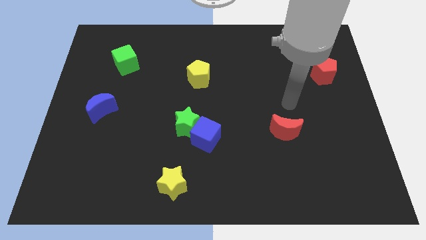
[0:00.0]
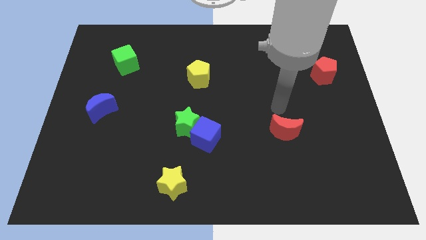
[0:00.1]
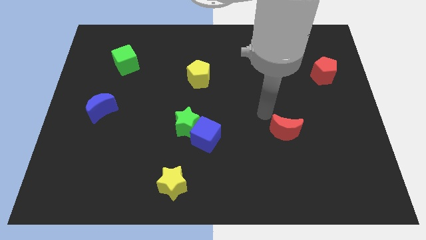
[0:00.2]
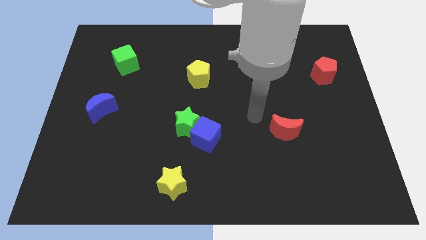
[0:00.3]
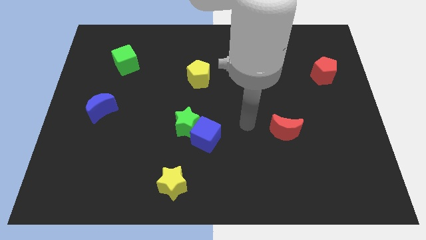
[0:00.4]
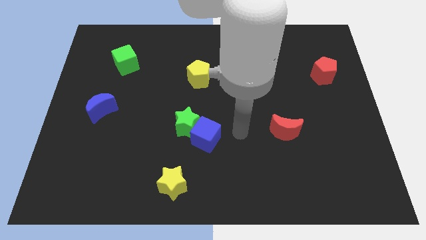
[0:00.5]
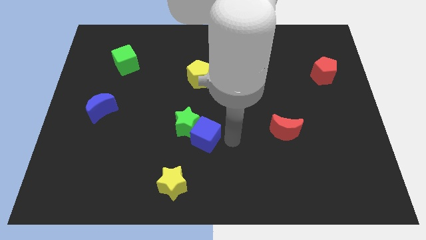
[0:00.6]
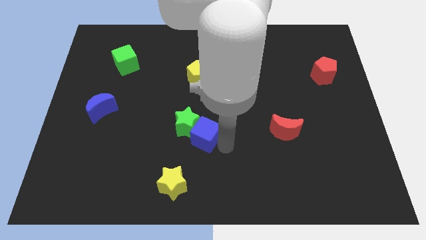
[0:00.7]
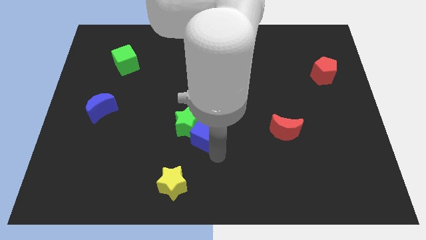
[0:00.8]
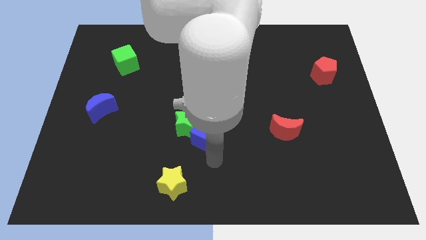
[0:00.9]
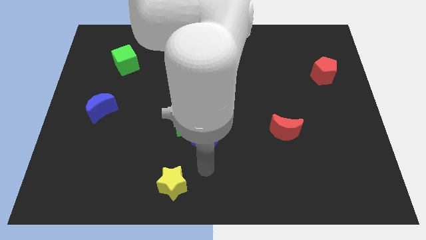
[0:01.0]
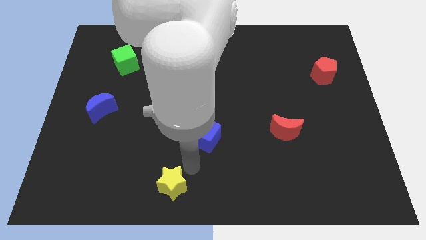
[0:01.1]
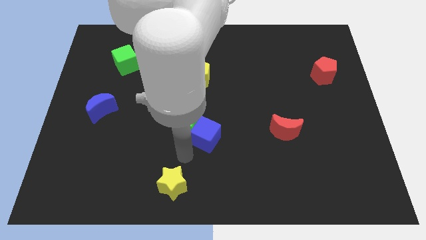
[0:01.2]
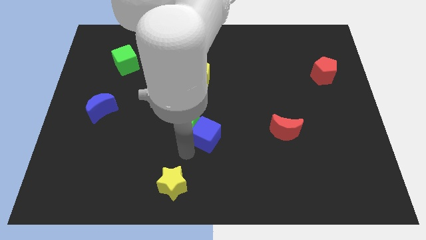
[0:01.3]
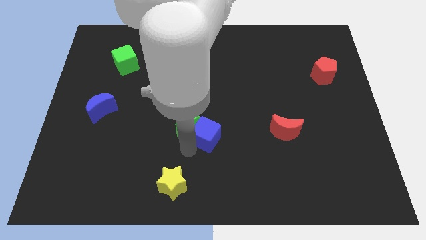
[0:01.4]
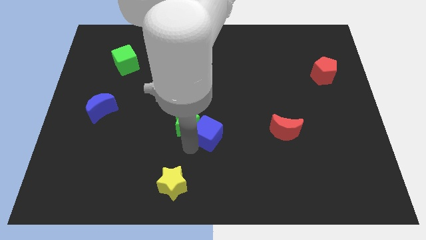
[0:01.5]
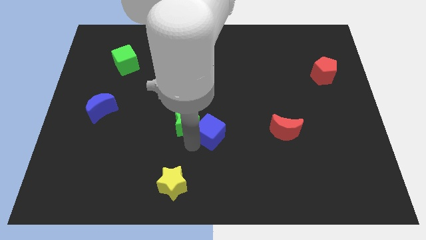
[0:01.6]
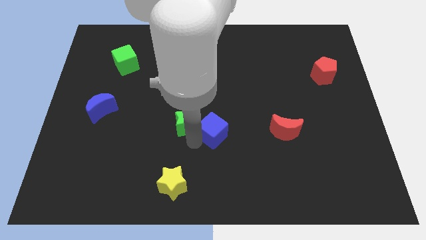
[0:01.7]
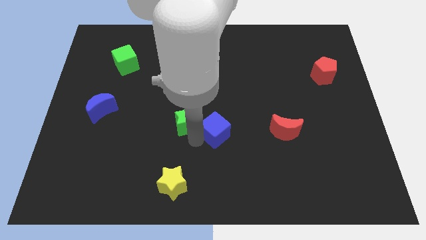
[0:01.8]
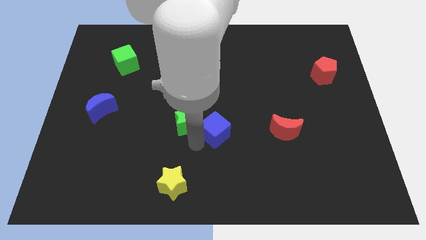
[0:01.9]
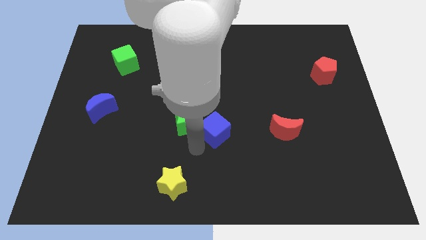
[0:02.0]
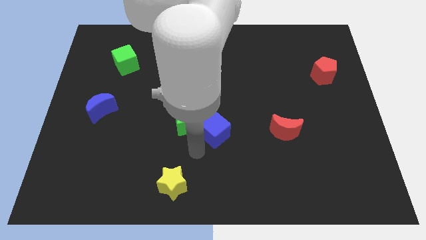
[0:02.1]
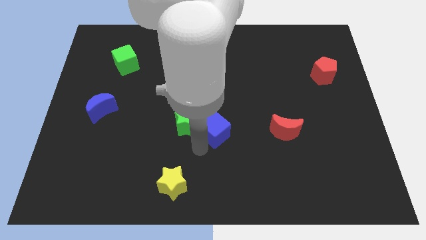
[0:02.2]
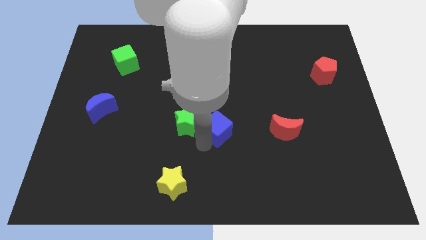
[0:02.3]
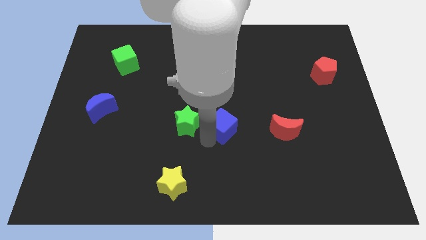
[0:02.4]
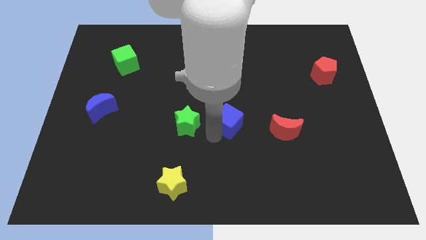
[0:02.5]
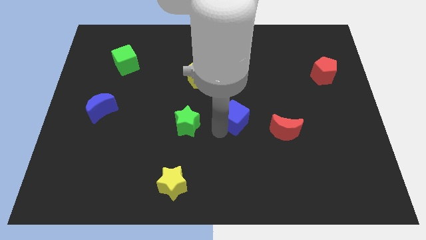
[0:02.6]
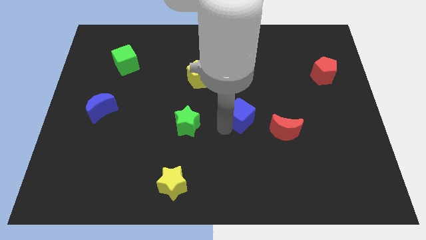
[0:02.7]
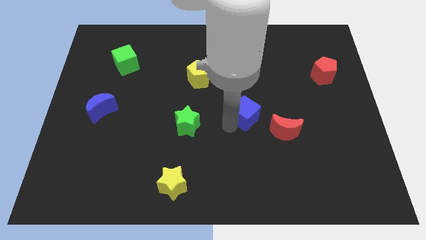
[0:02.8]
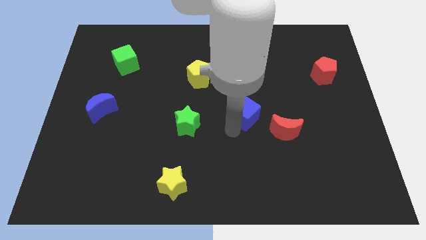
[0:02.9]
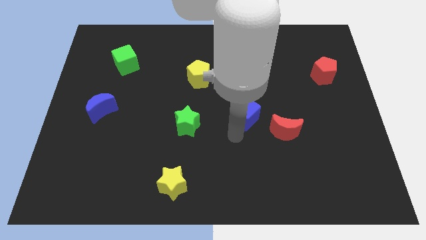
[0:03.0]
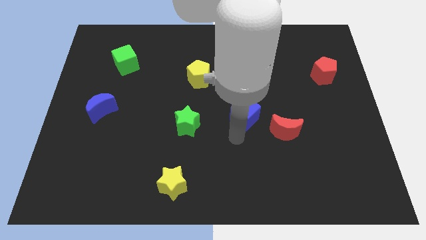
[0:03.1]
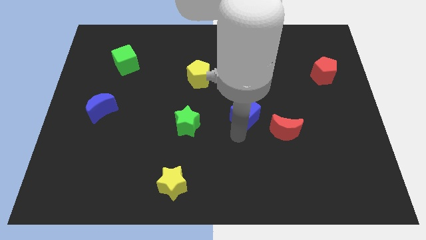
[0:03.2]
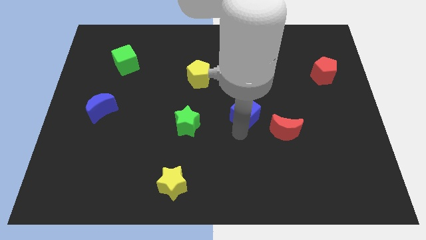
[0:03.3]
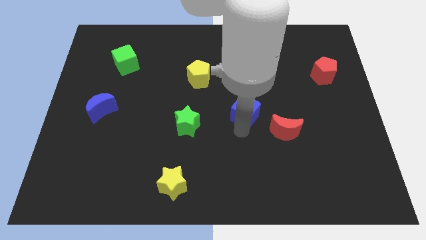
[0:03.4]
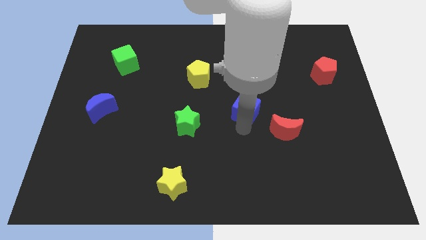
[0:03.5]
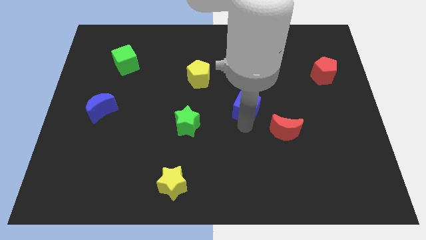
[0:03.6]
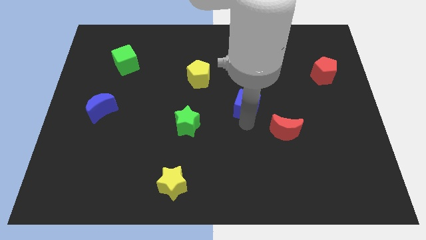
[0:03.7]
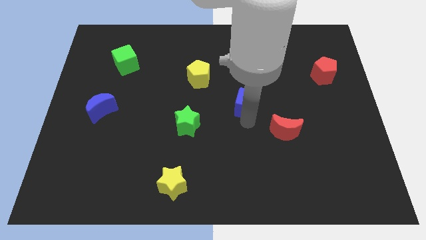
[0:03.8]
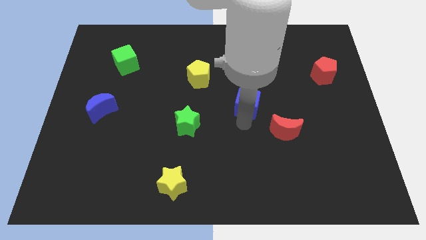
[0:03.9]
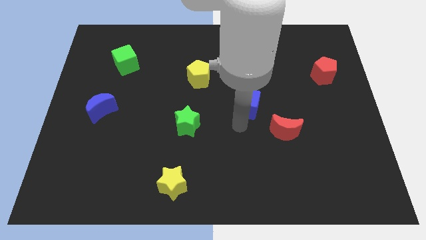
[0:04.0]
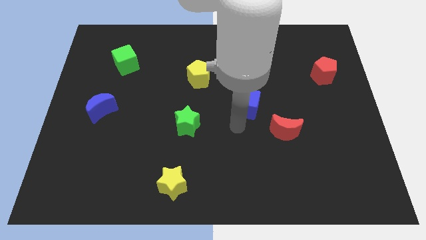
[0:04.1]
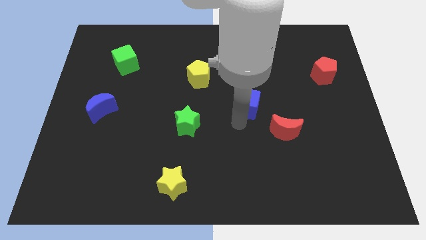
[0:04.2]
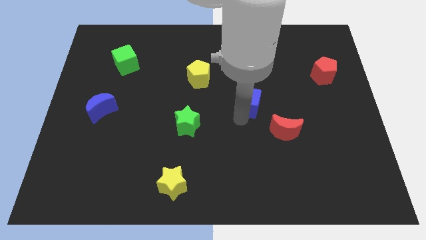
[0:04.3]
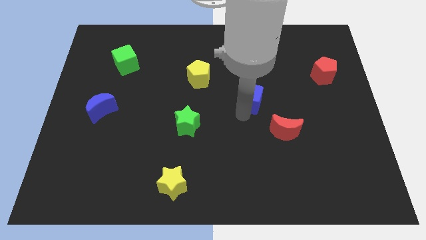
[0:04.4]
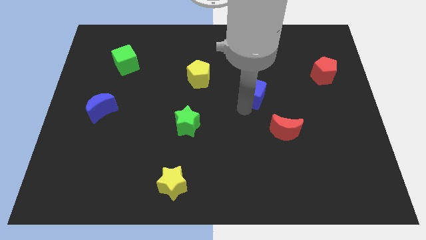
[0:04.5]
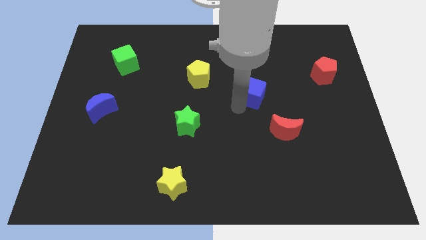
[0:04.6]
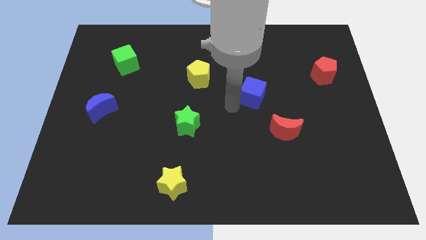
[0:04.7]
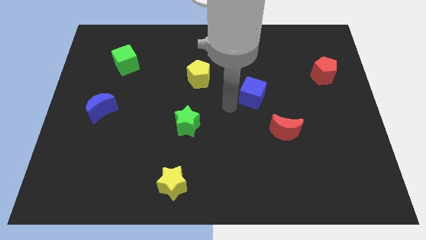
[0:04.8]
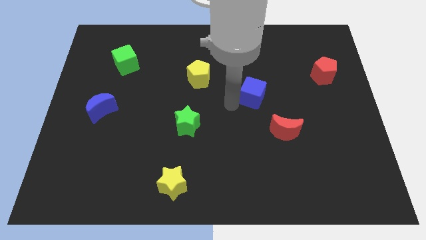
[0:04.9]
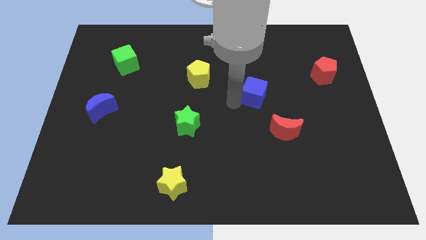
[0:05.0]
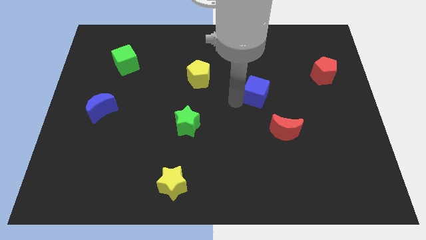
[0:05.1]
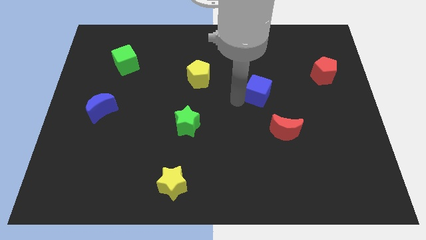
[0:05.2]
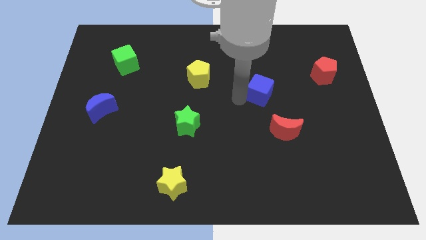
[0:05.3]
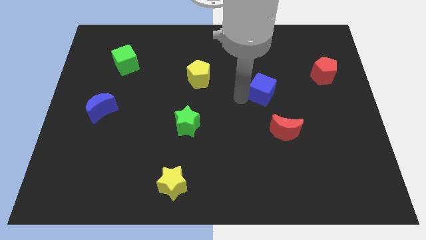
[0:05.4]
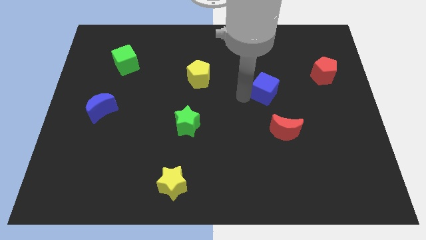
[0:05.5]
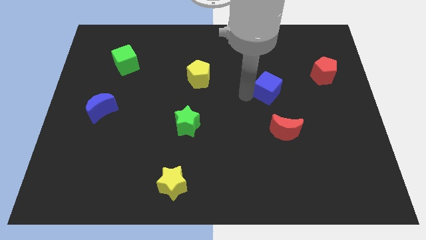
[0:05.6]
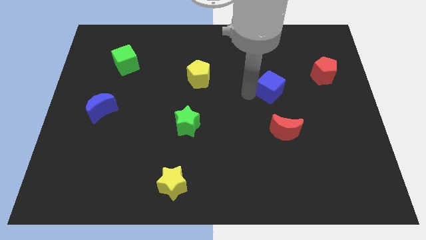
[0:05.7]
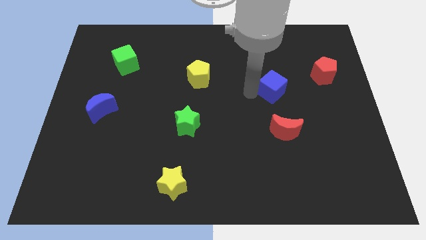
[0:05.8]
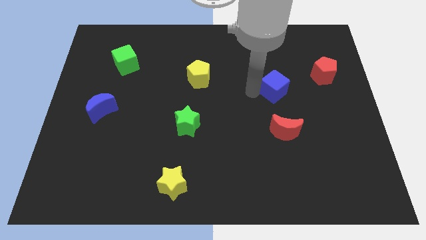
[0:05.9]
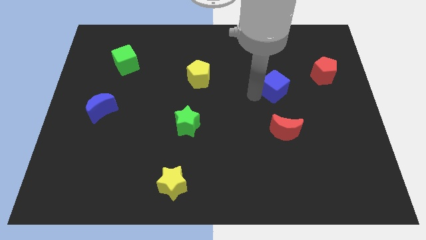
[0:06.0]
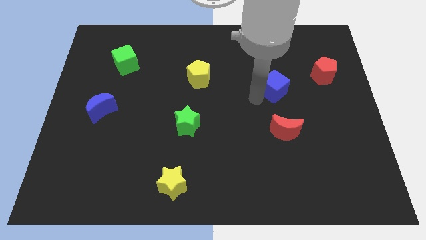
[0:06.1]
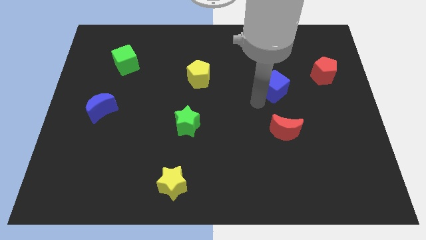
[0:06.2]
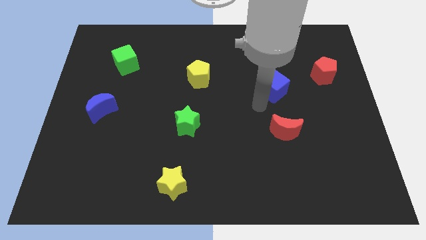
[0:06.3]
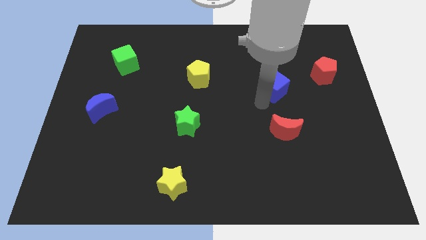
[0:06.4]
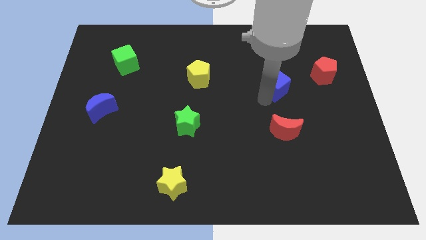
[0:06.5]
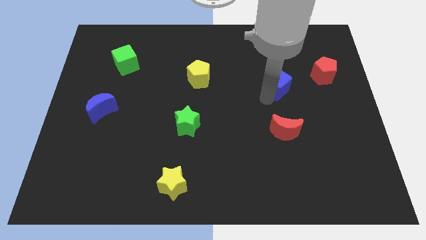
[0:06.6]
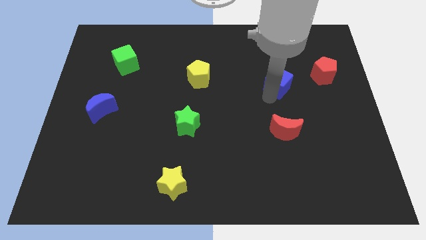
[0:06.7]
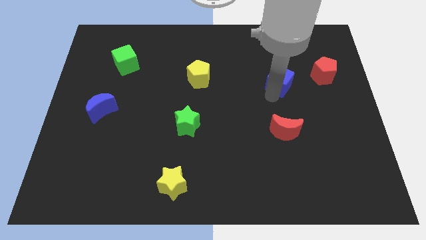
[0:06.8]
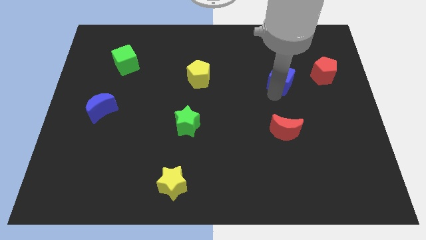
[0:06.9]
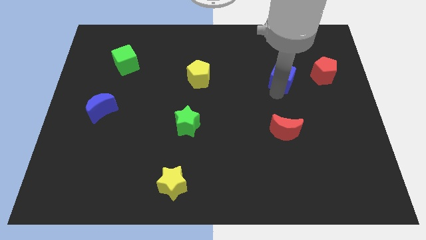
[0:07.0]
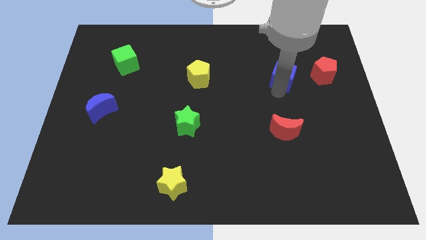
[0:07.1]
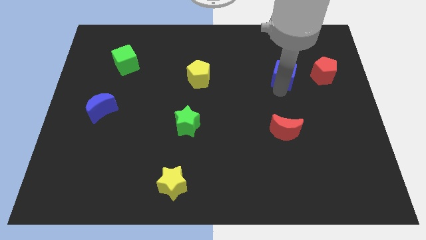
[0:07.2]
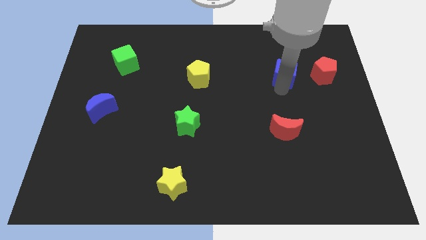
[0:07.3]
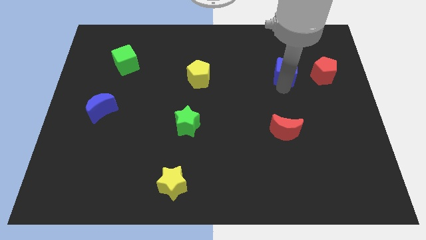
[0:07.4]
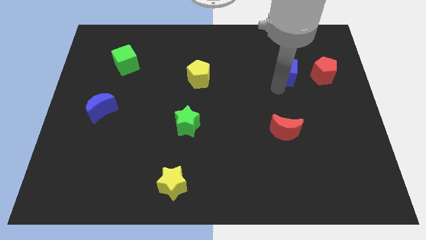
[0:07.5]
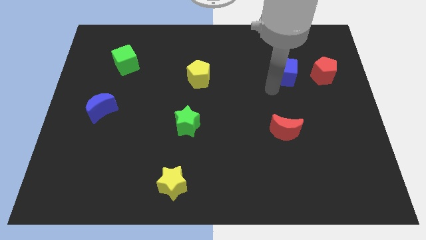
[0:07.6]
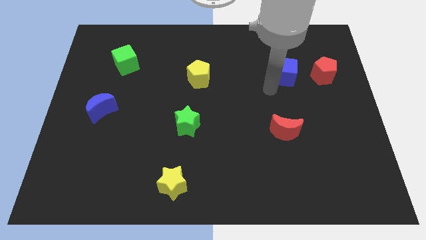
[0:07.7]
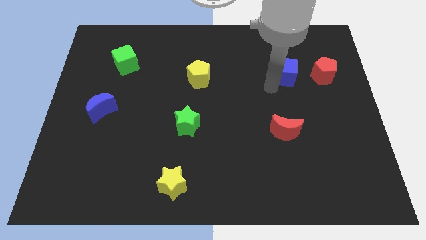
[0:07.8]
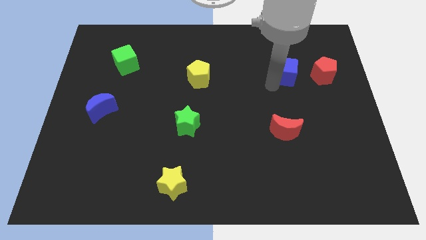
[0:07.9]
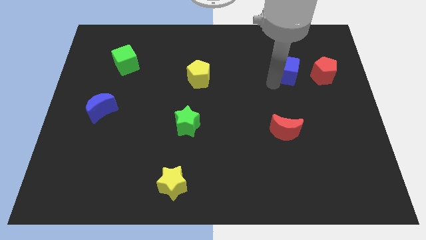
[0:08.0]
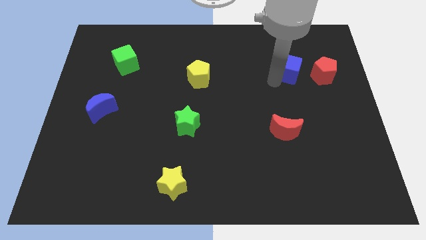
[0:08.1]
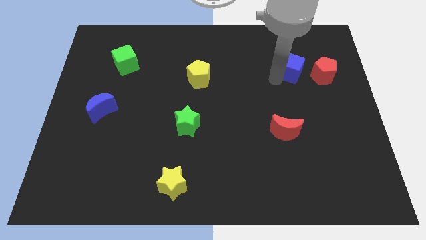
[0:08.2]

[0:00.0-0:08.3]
put the blue cube to the top left side of the red pentagon
